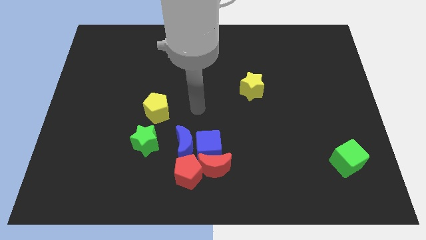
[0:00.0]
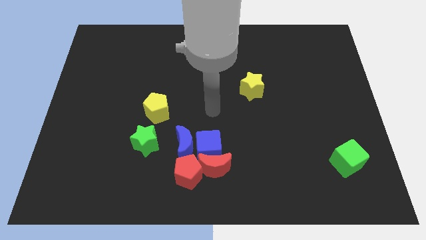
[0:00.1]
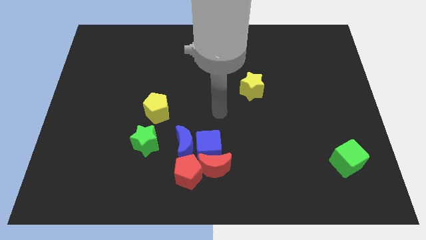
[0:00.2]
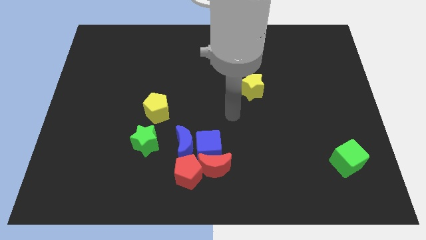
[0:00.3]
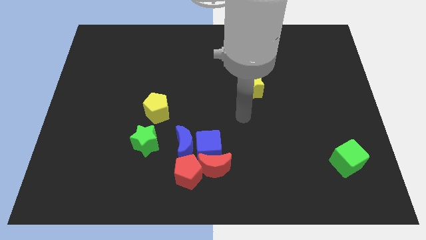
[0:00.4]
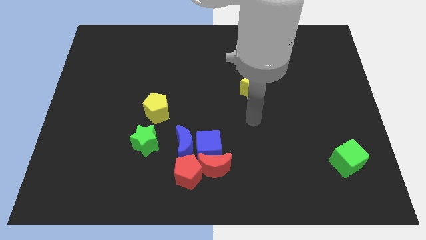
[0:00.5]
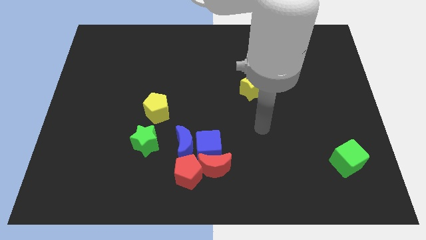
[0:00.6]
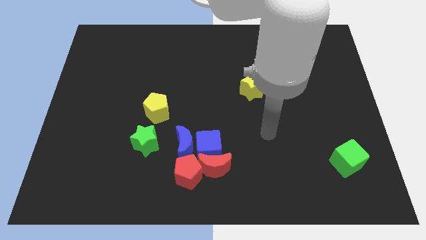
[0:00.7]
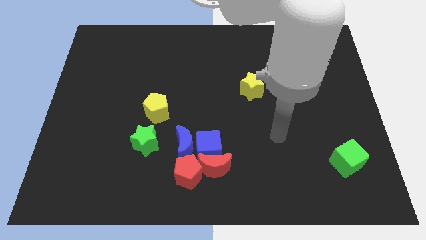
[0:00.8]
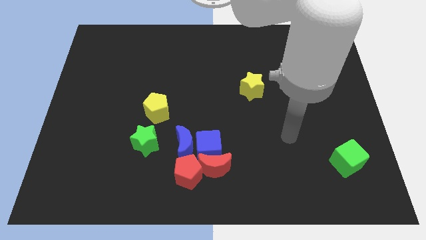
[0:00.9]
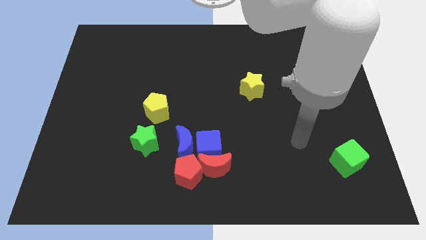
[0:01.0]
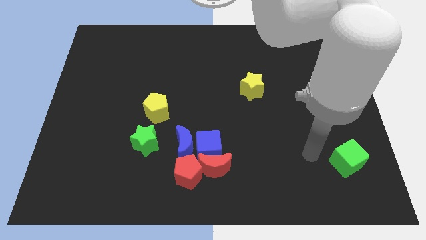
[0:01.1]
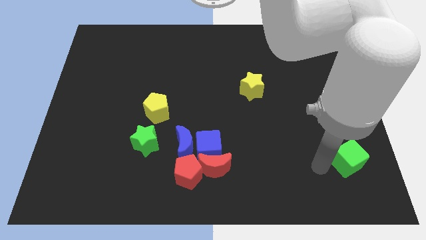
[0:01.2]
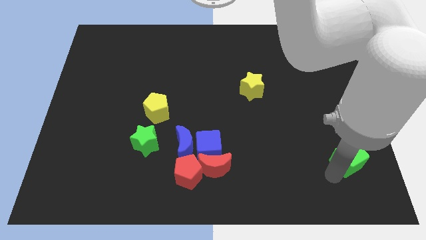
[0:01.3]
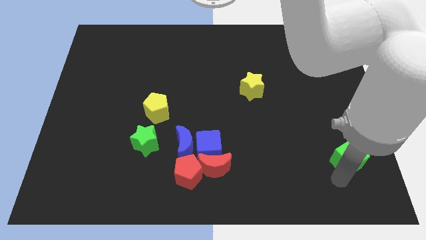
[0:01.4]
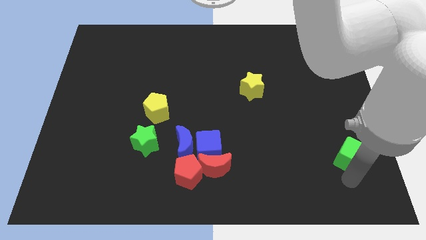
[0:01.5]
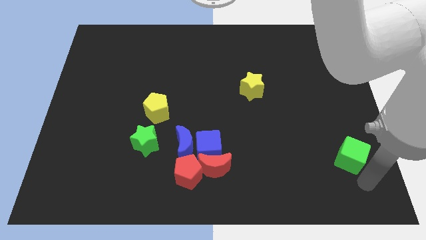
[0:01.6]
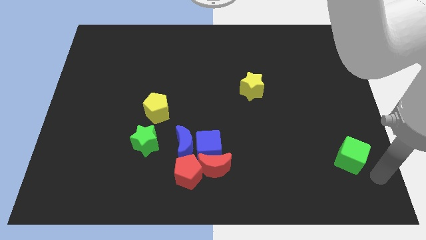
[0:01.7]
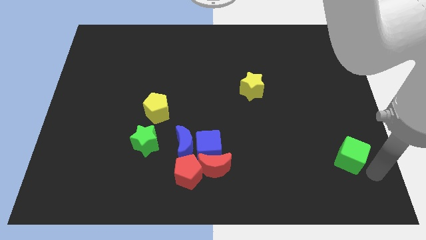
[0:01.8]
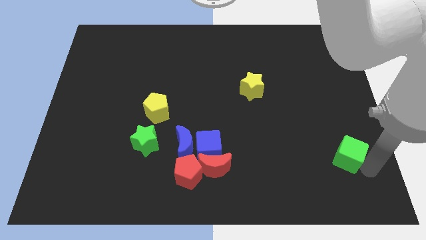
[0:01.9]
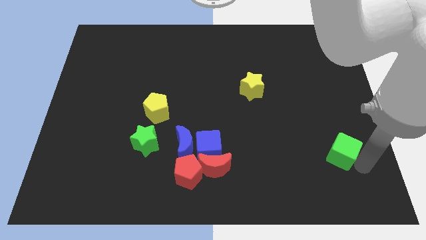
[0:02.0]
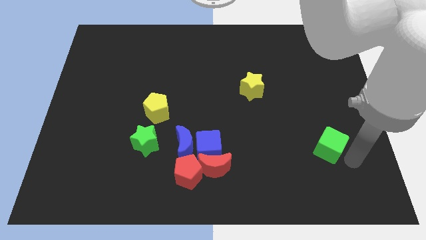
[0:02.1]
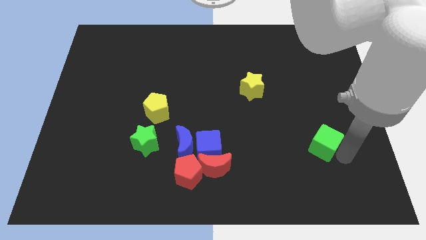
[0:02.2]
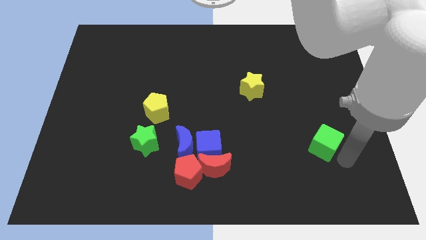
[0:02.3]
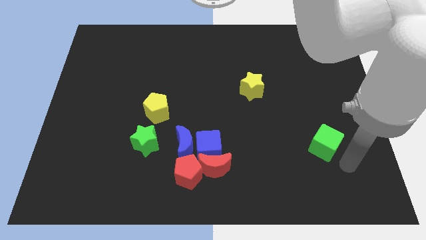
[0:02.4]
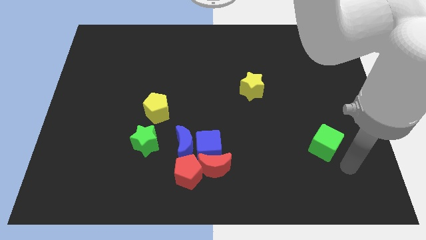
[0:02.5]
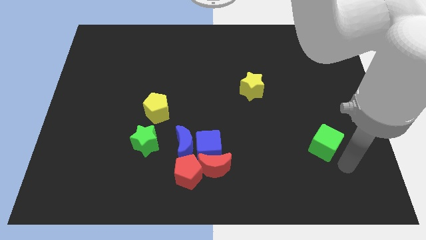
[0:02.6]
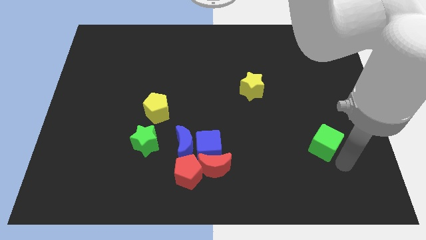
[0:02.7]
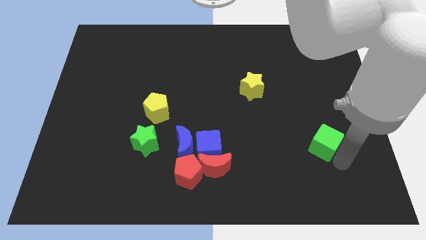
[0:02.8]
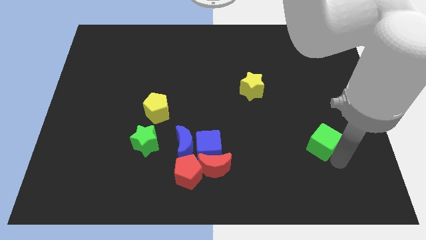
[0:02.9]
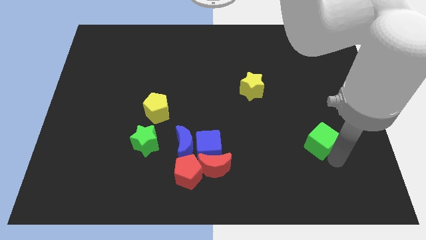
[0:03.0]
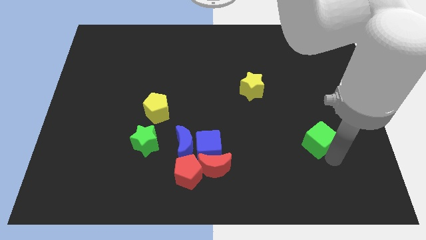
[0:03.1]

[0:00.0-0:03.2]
slide the green cube upwards and then left a bit

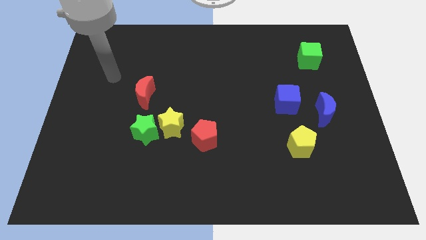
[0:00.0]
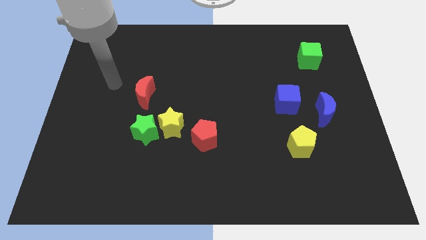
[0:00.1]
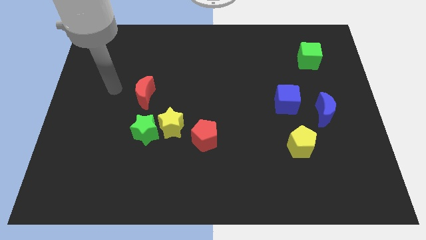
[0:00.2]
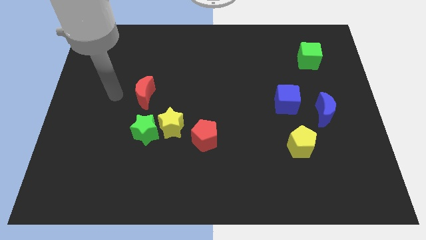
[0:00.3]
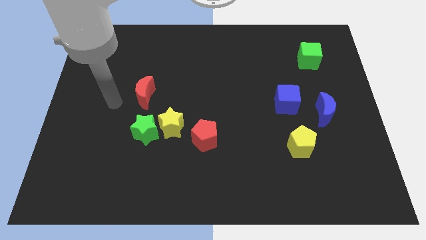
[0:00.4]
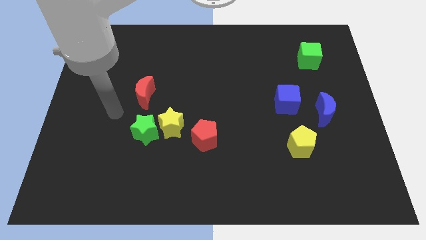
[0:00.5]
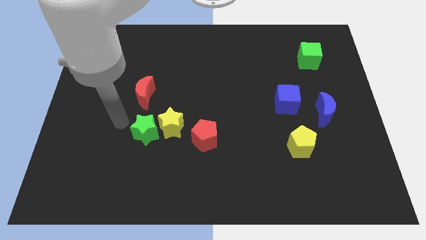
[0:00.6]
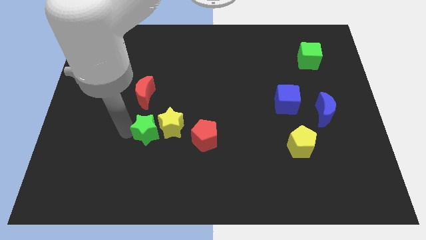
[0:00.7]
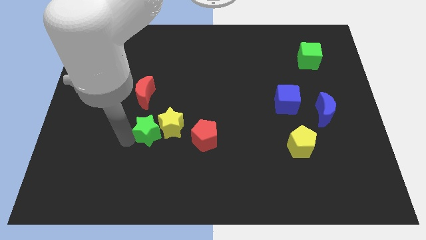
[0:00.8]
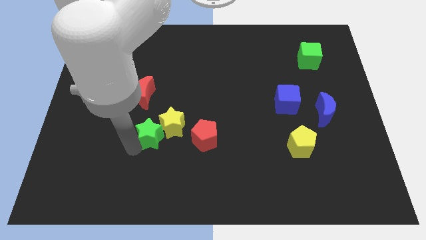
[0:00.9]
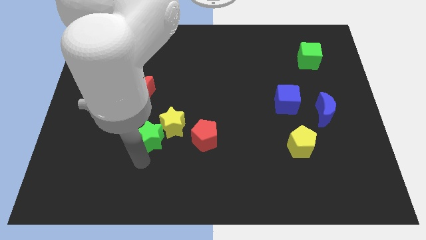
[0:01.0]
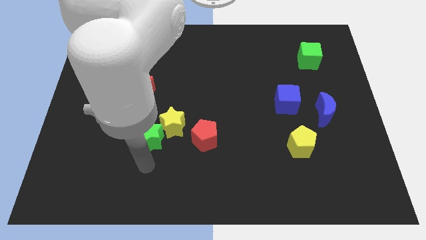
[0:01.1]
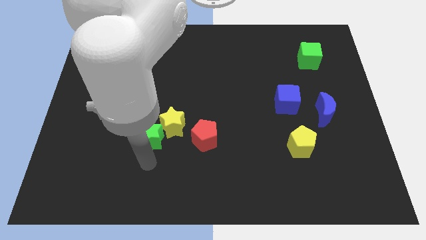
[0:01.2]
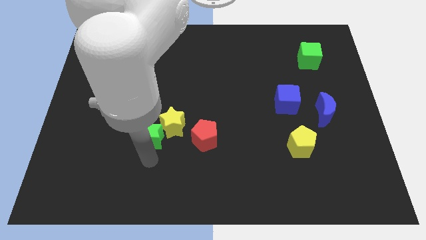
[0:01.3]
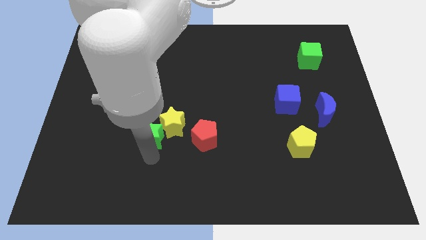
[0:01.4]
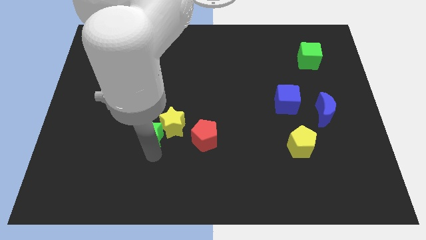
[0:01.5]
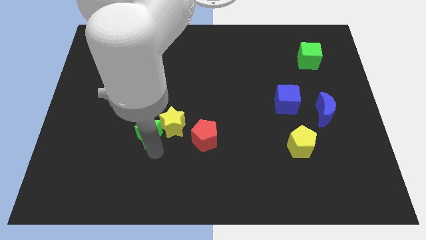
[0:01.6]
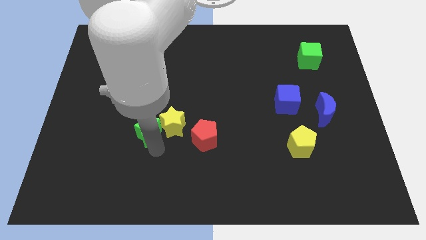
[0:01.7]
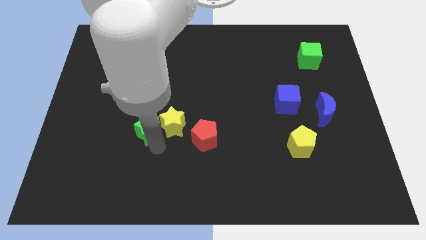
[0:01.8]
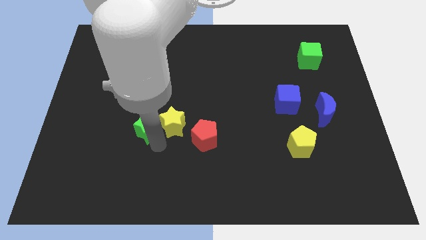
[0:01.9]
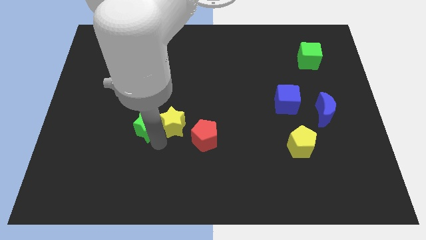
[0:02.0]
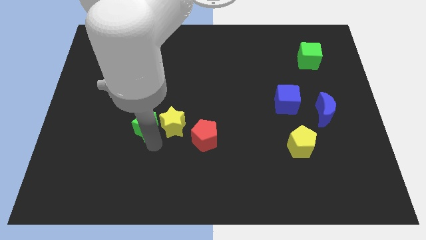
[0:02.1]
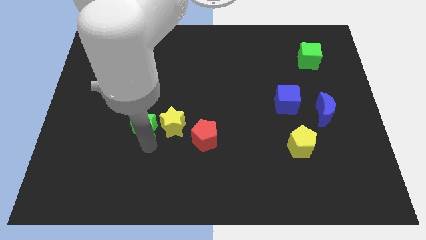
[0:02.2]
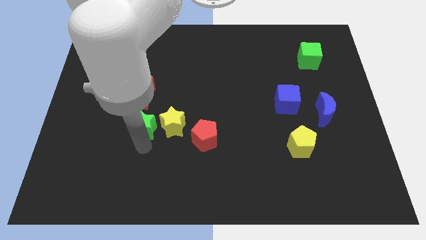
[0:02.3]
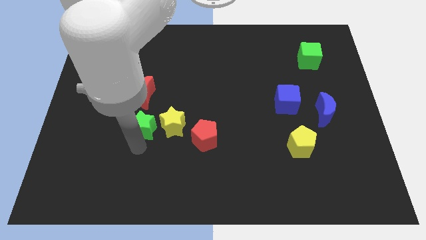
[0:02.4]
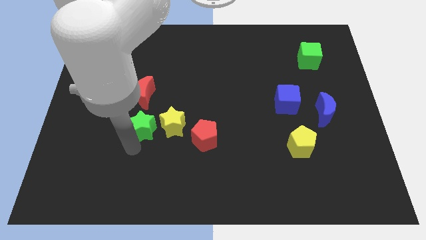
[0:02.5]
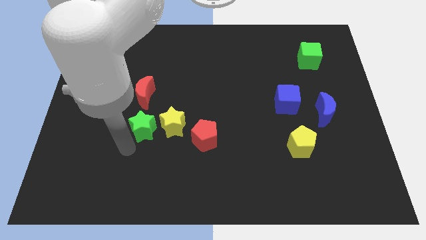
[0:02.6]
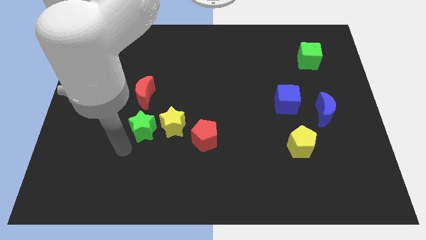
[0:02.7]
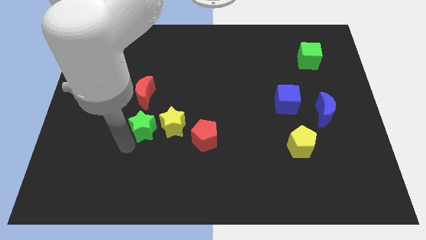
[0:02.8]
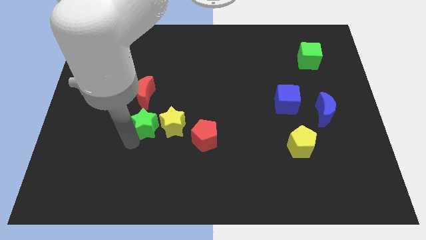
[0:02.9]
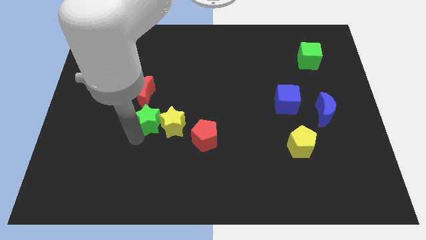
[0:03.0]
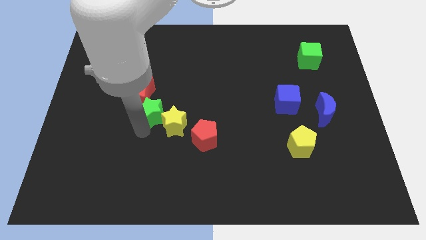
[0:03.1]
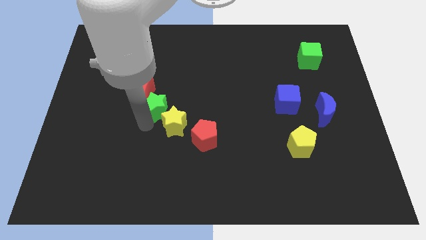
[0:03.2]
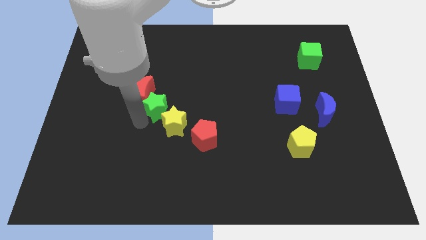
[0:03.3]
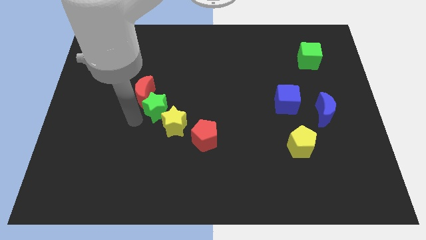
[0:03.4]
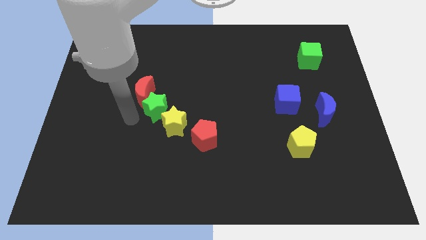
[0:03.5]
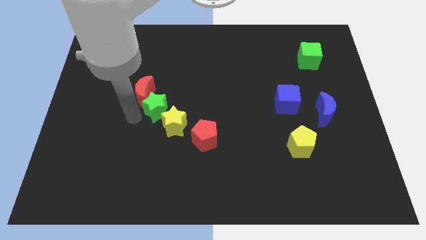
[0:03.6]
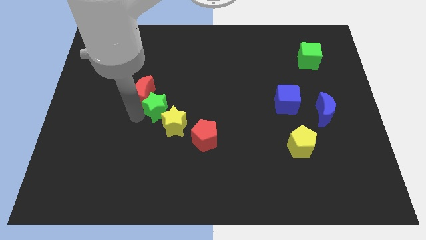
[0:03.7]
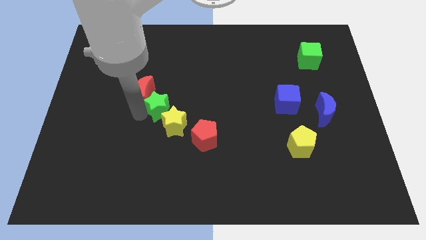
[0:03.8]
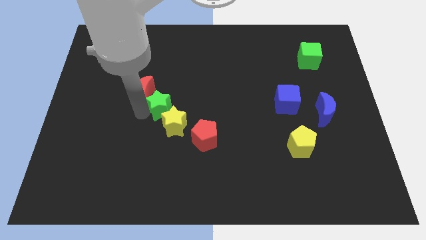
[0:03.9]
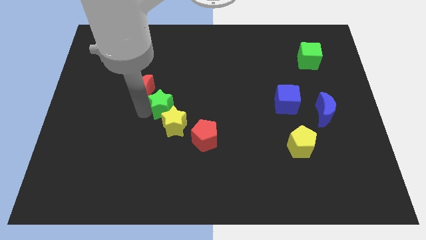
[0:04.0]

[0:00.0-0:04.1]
slightly slide the green star up and right diagonally

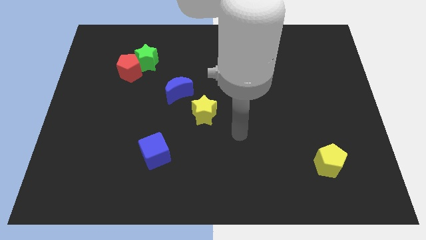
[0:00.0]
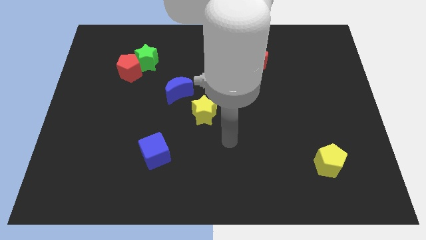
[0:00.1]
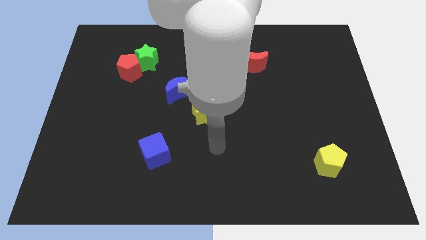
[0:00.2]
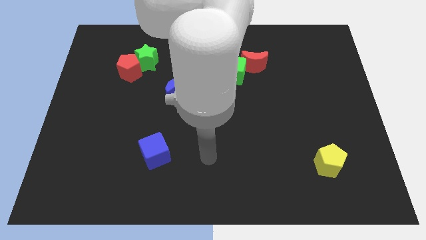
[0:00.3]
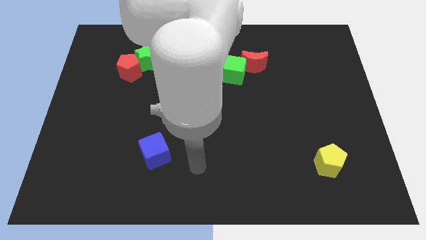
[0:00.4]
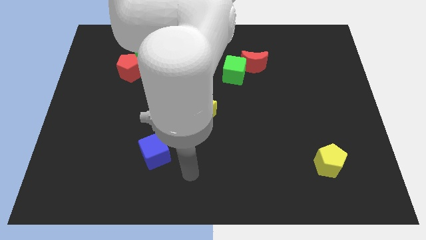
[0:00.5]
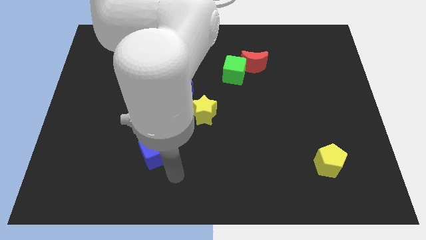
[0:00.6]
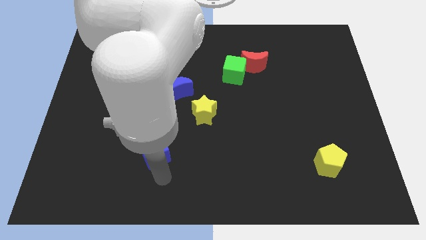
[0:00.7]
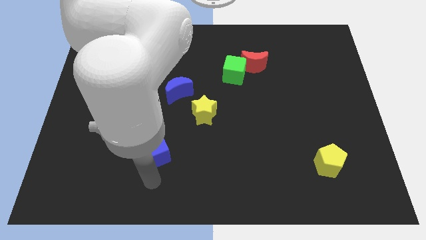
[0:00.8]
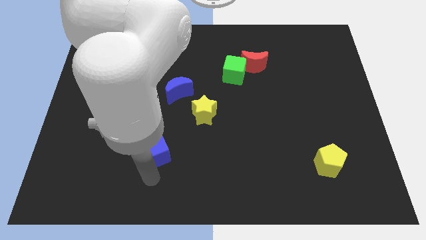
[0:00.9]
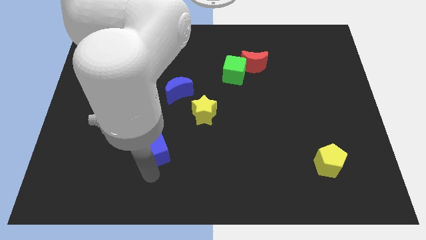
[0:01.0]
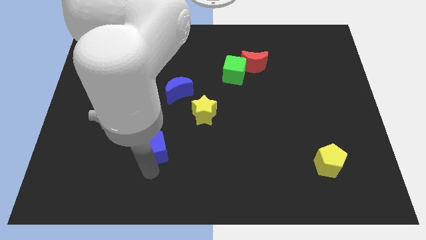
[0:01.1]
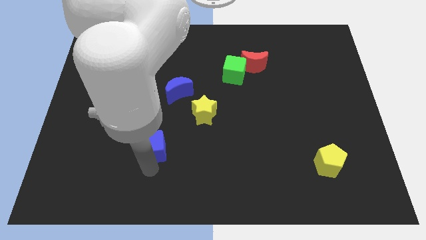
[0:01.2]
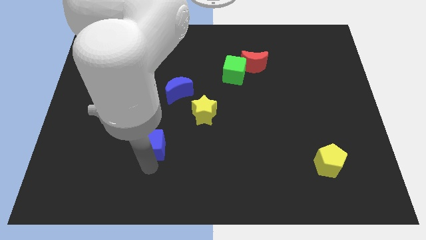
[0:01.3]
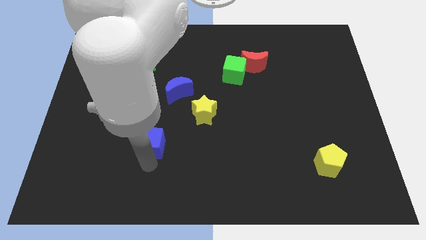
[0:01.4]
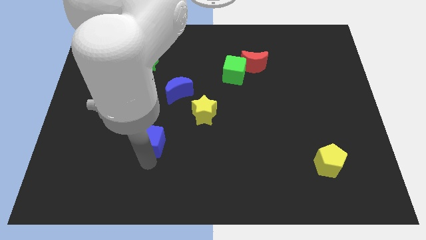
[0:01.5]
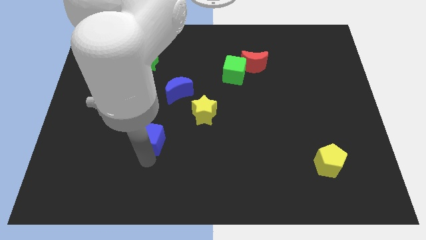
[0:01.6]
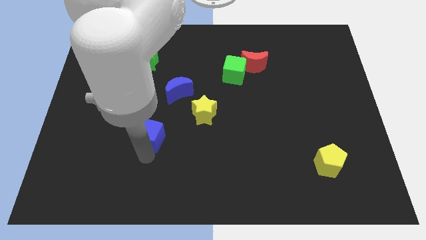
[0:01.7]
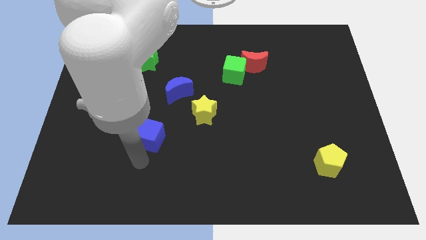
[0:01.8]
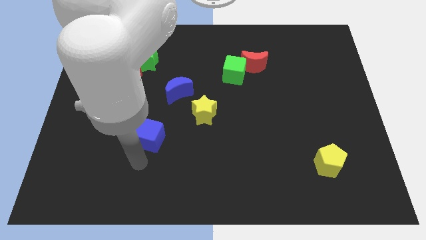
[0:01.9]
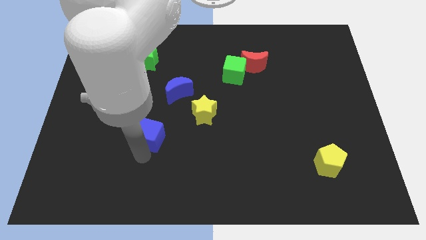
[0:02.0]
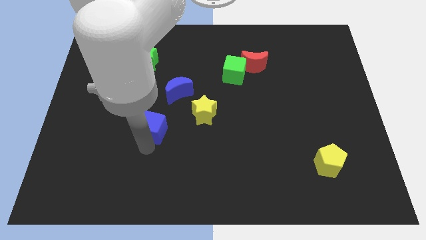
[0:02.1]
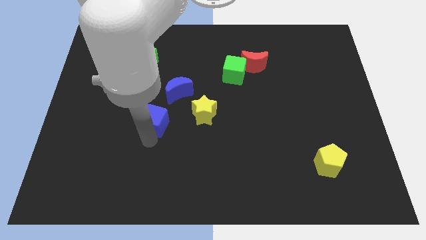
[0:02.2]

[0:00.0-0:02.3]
slide the blue cube upwards somewhat
